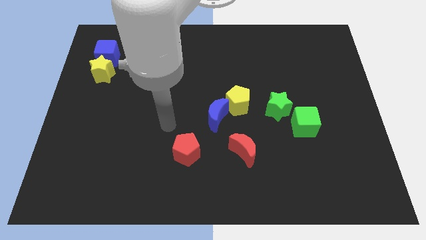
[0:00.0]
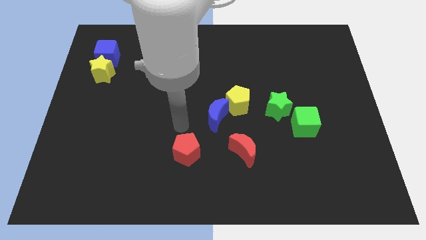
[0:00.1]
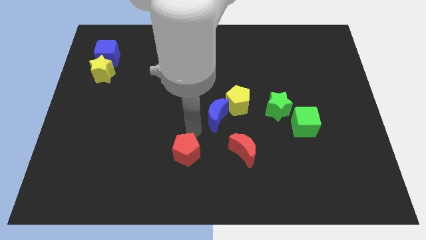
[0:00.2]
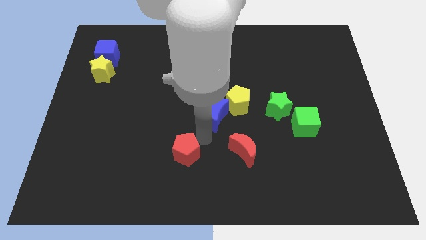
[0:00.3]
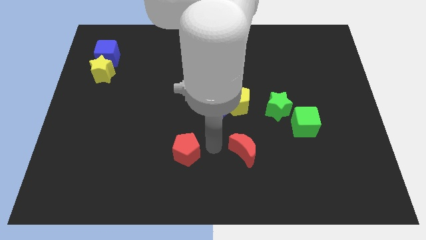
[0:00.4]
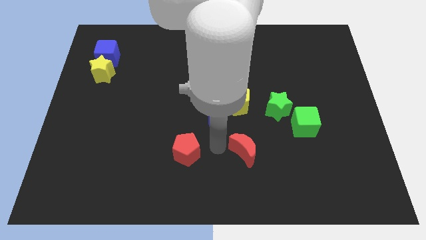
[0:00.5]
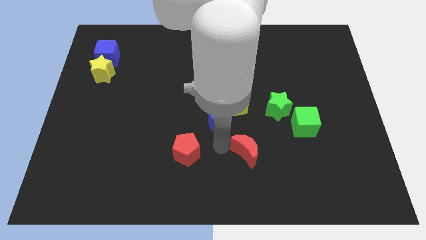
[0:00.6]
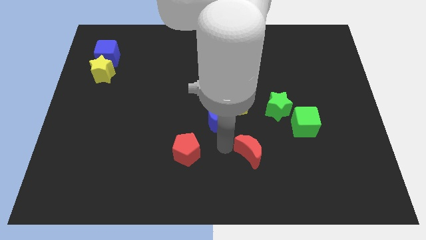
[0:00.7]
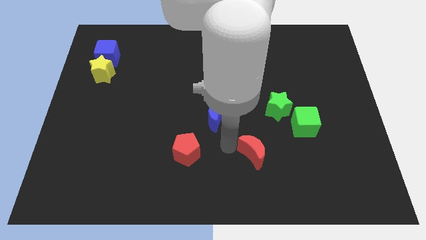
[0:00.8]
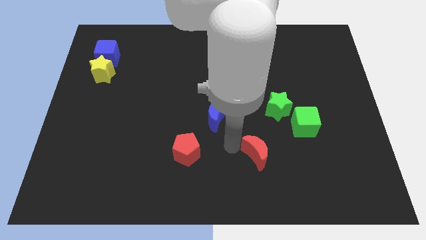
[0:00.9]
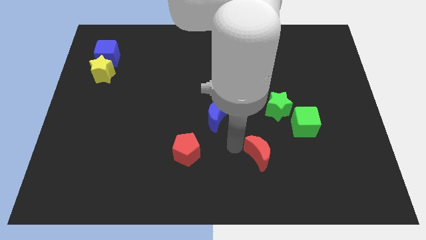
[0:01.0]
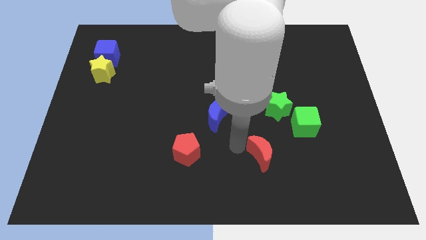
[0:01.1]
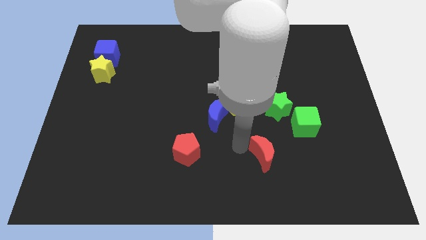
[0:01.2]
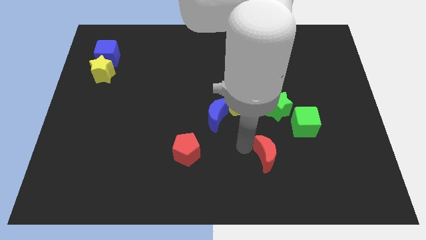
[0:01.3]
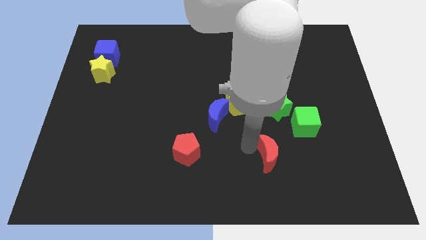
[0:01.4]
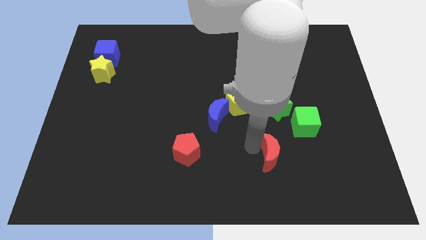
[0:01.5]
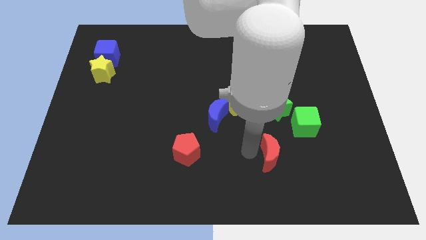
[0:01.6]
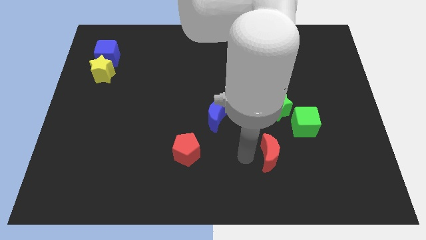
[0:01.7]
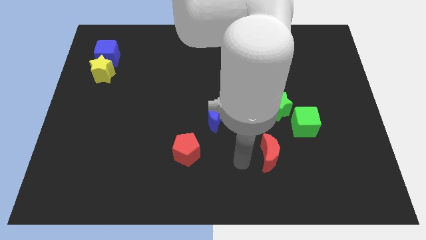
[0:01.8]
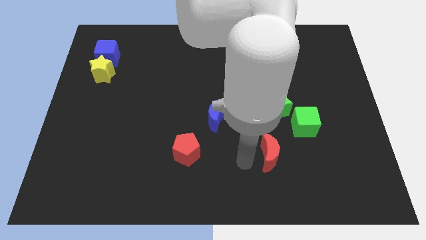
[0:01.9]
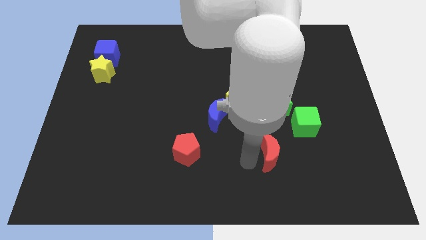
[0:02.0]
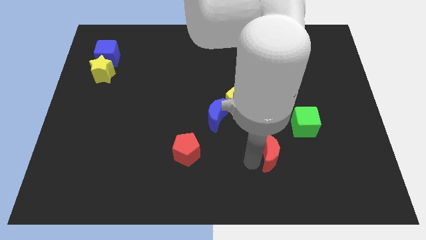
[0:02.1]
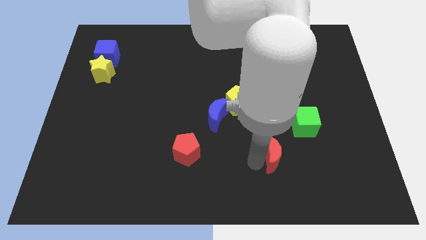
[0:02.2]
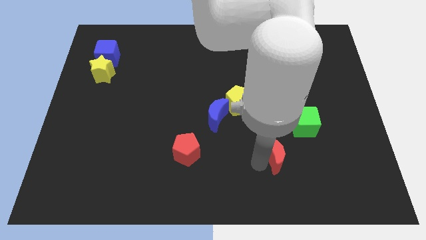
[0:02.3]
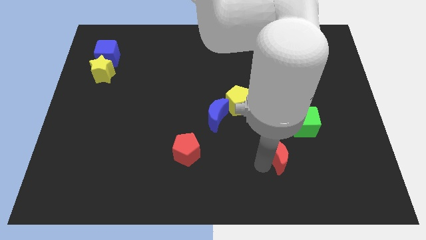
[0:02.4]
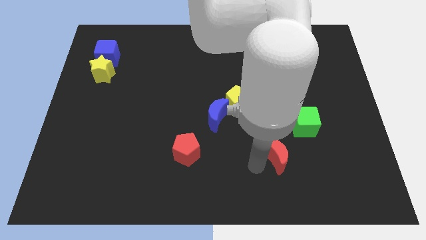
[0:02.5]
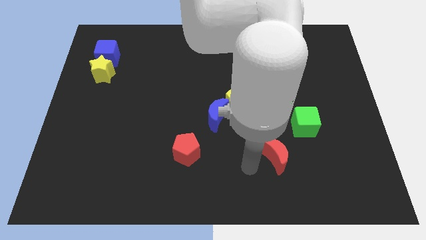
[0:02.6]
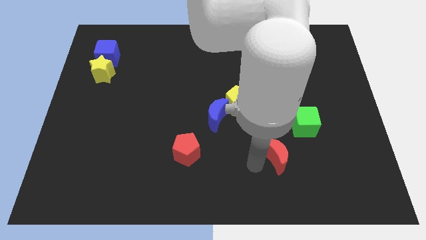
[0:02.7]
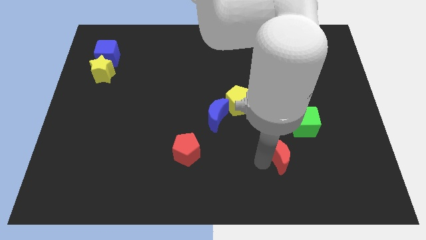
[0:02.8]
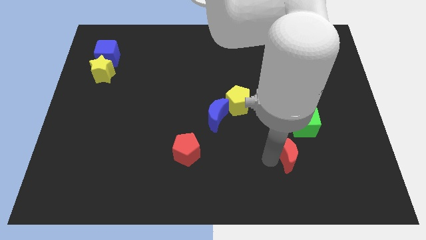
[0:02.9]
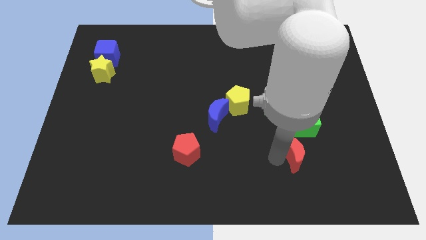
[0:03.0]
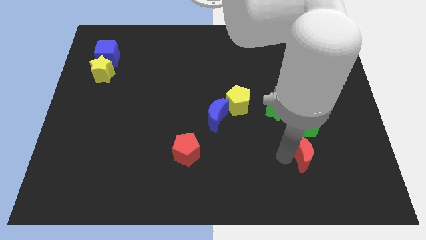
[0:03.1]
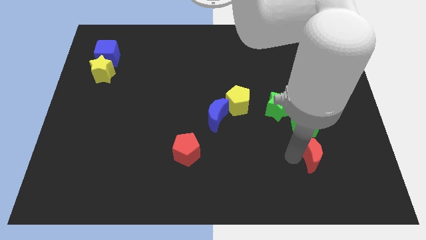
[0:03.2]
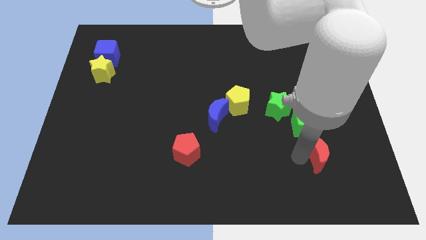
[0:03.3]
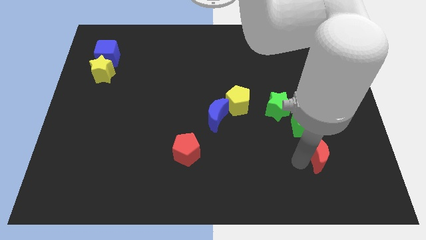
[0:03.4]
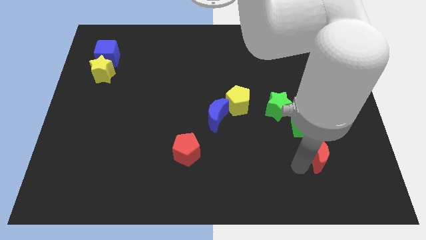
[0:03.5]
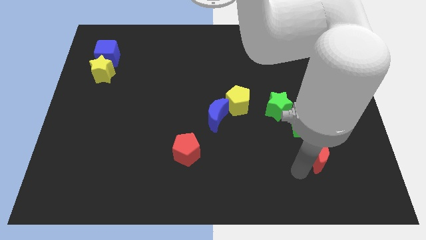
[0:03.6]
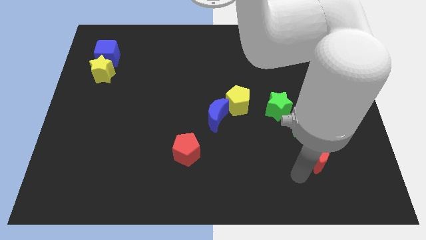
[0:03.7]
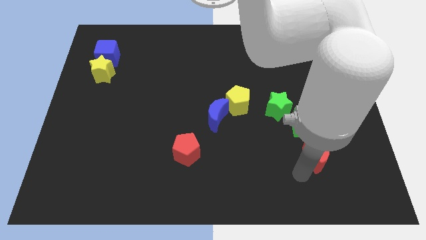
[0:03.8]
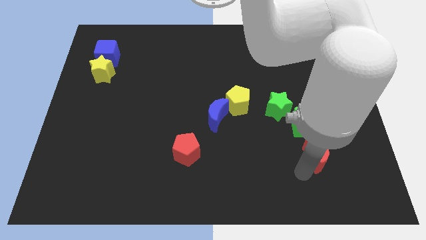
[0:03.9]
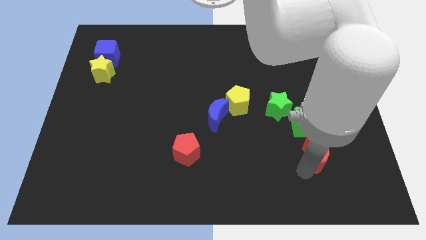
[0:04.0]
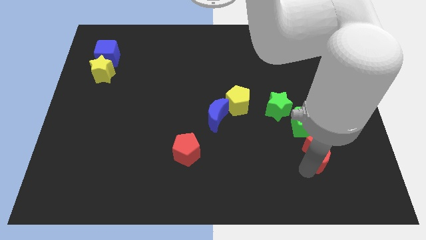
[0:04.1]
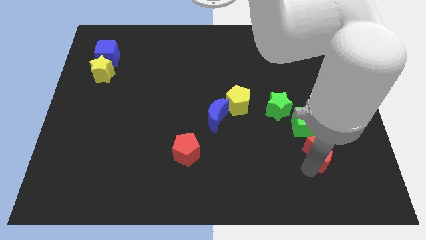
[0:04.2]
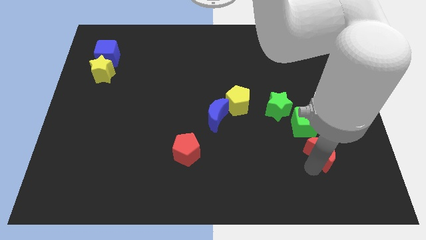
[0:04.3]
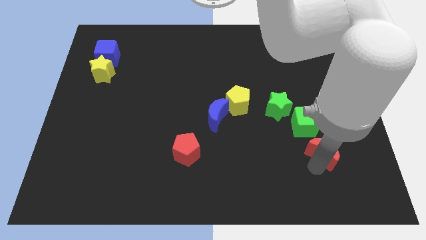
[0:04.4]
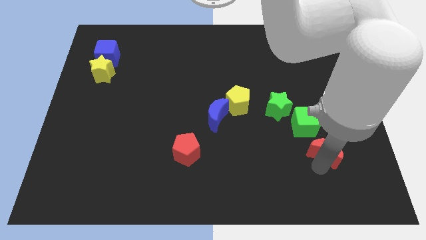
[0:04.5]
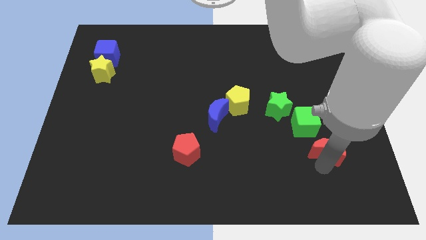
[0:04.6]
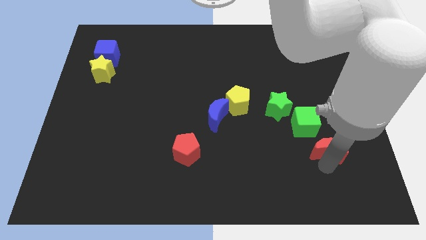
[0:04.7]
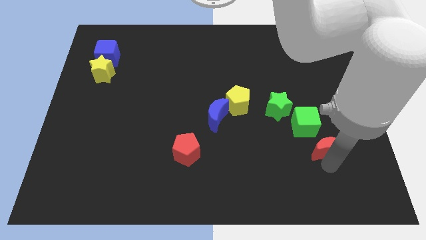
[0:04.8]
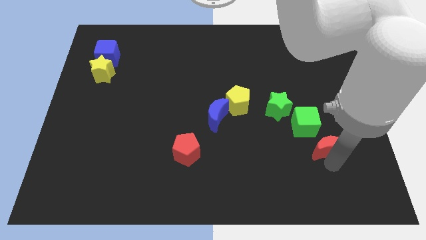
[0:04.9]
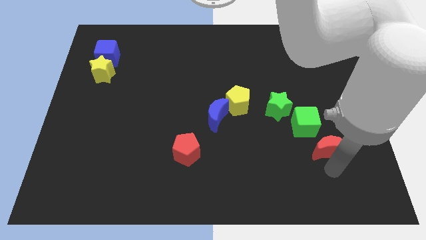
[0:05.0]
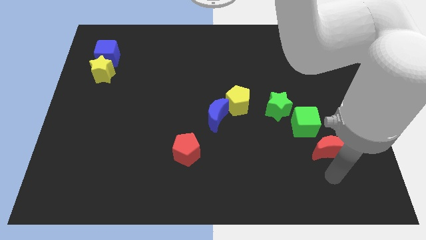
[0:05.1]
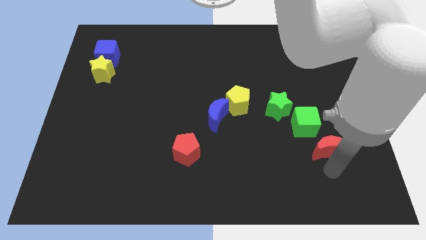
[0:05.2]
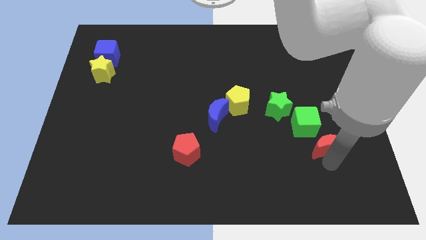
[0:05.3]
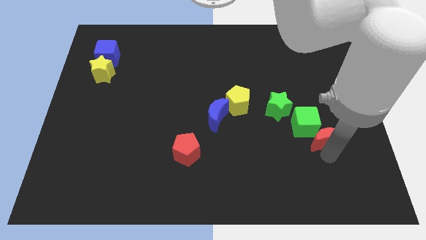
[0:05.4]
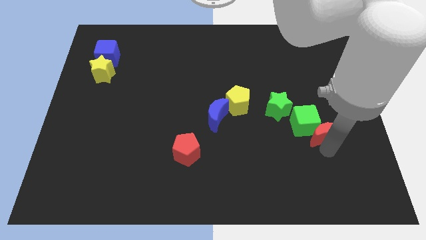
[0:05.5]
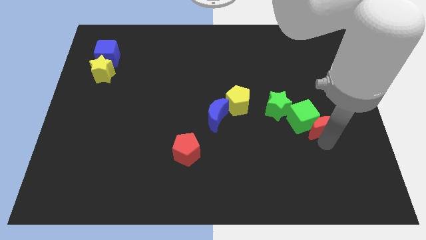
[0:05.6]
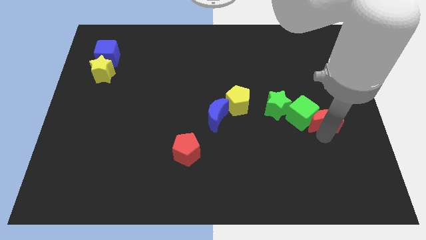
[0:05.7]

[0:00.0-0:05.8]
slide the red moon right of the green star

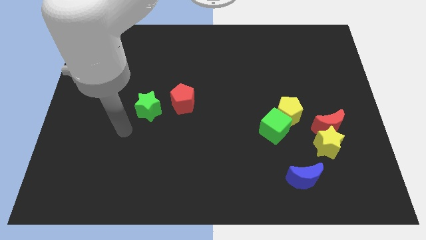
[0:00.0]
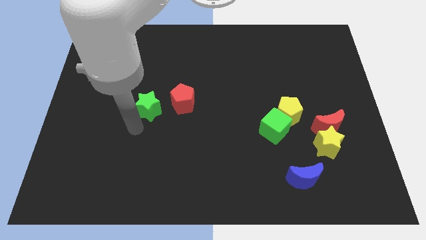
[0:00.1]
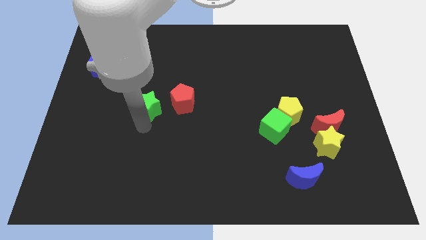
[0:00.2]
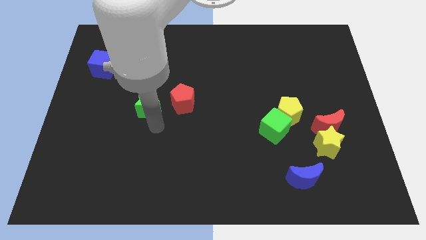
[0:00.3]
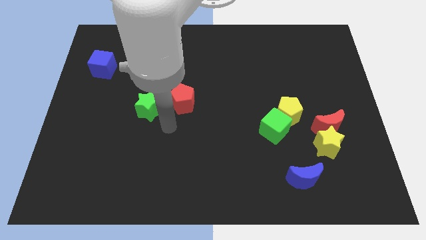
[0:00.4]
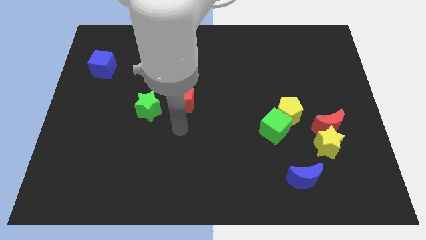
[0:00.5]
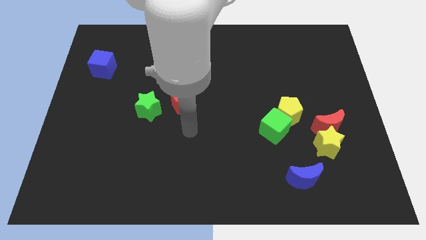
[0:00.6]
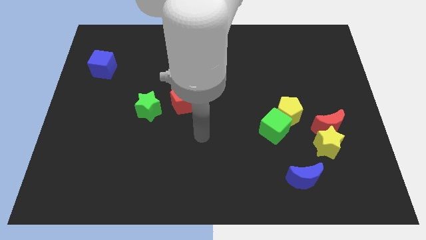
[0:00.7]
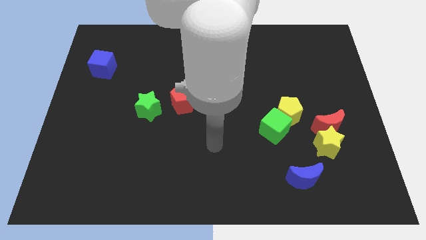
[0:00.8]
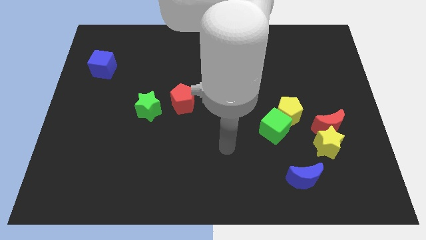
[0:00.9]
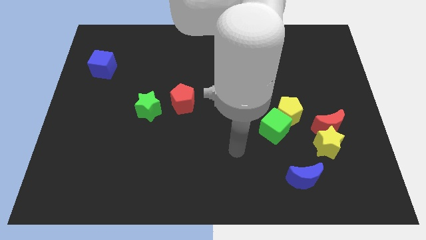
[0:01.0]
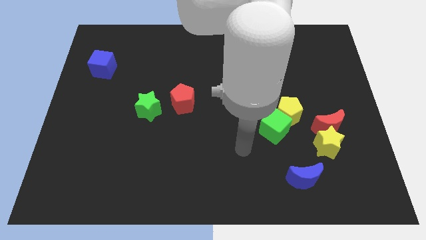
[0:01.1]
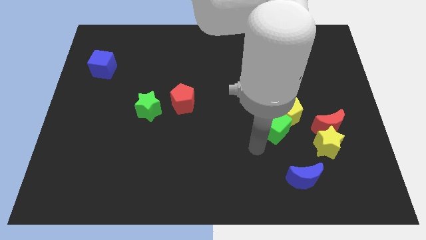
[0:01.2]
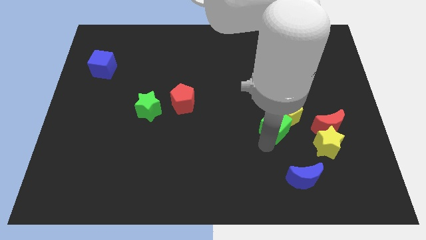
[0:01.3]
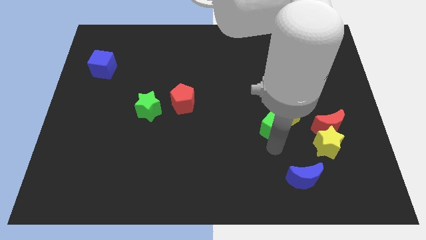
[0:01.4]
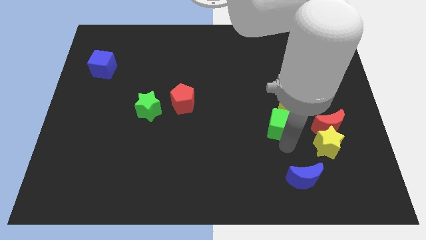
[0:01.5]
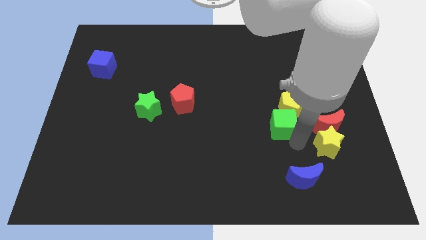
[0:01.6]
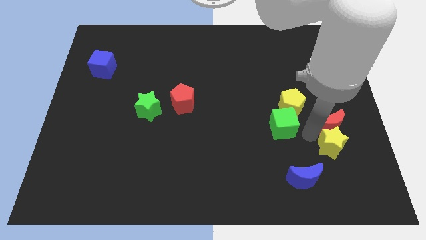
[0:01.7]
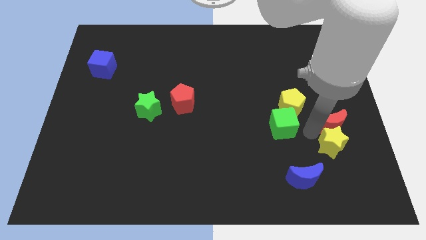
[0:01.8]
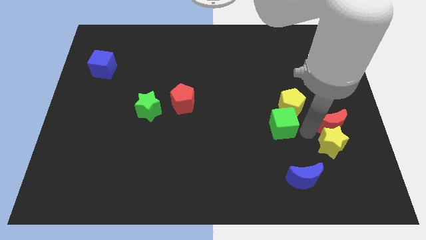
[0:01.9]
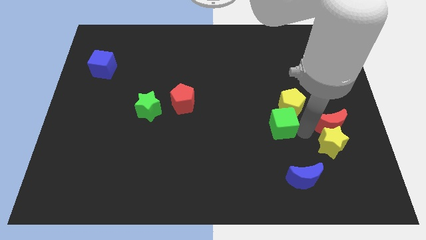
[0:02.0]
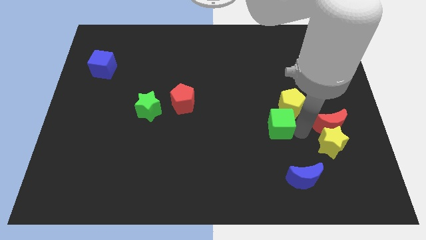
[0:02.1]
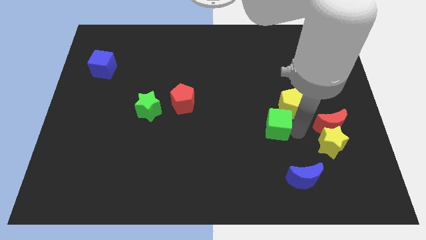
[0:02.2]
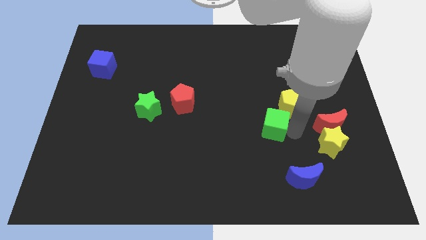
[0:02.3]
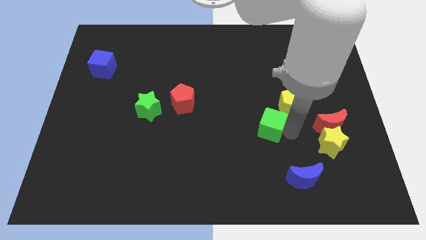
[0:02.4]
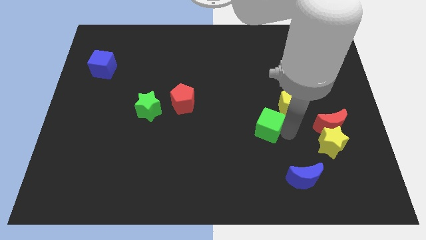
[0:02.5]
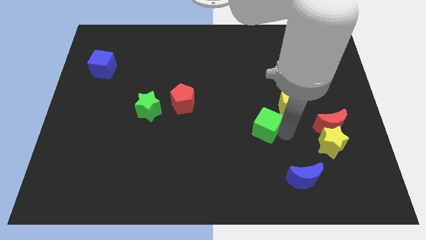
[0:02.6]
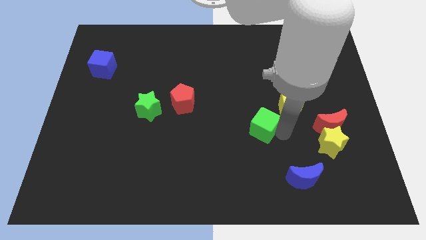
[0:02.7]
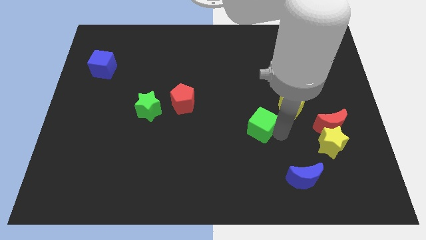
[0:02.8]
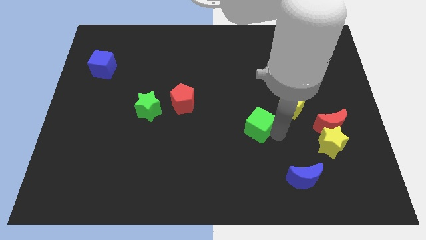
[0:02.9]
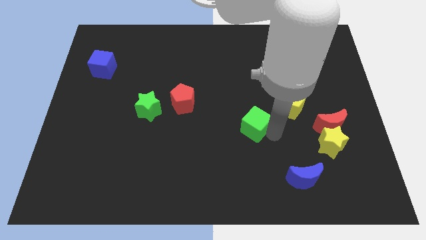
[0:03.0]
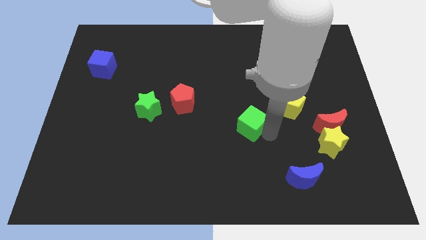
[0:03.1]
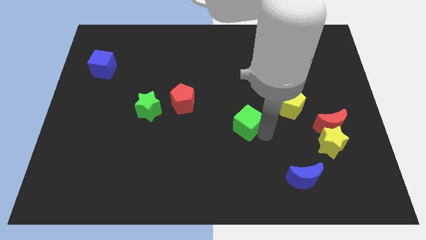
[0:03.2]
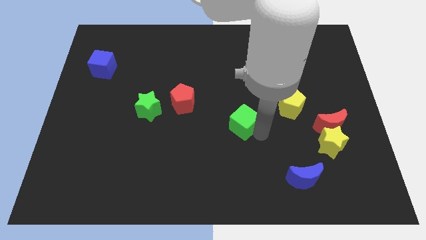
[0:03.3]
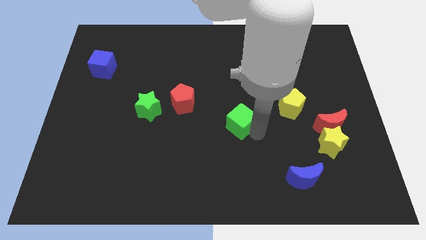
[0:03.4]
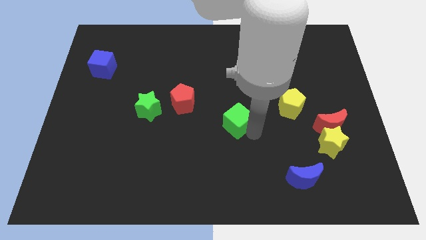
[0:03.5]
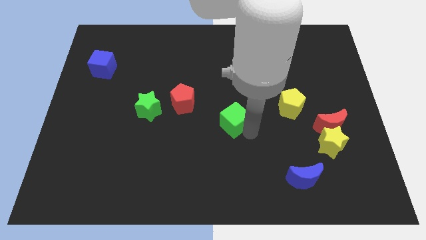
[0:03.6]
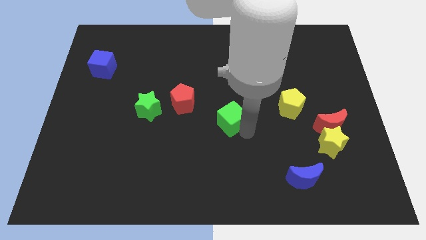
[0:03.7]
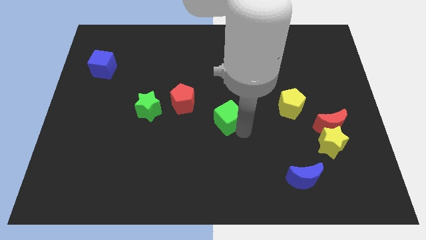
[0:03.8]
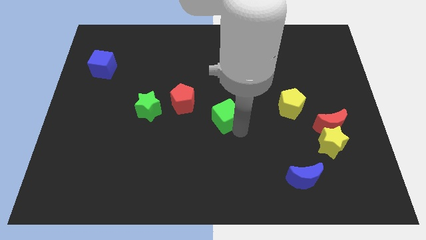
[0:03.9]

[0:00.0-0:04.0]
slide the green cube right of the red pentagon
